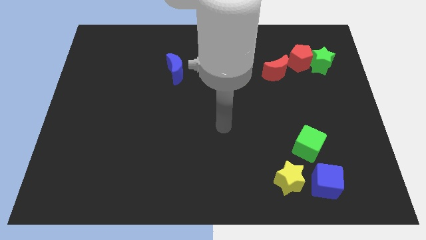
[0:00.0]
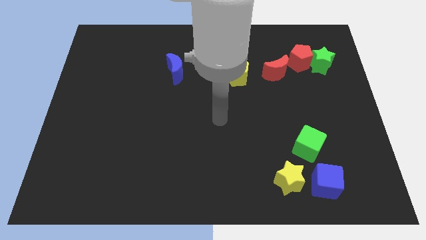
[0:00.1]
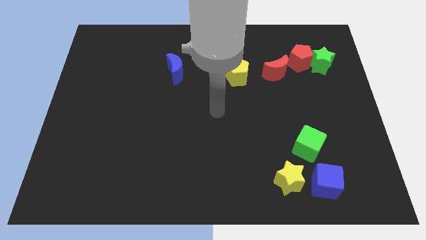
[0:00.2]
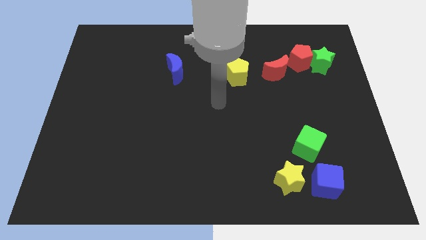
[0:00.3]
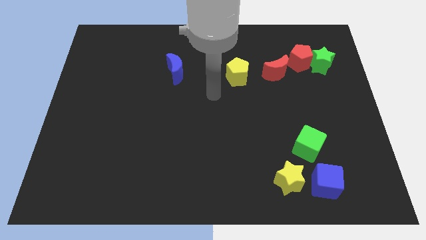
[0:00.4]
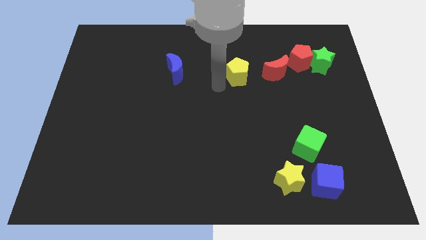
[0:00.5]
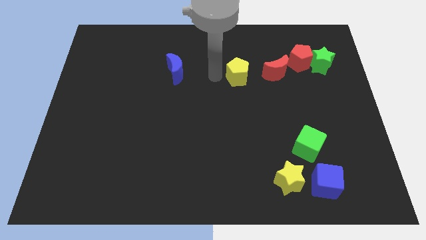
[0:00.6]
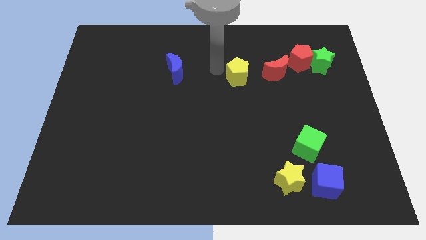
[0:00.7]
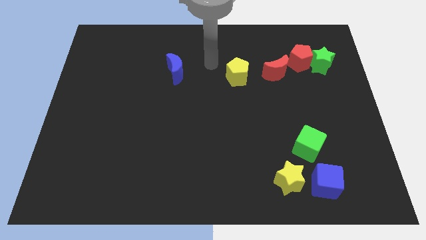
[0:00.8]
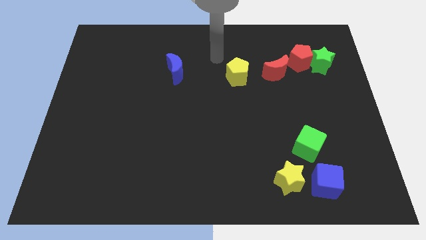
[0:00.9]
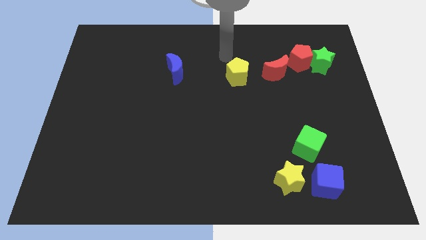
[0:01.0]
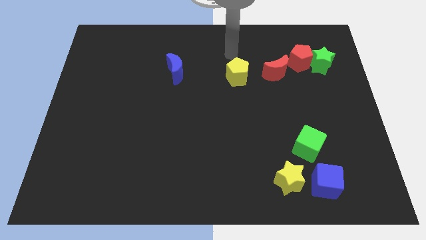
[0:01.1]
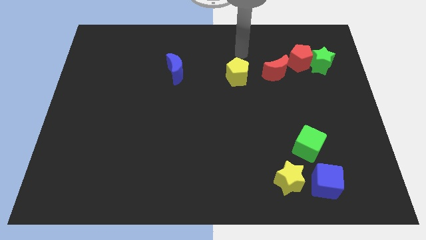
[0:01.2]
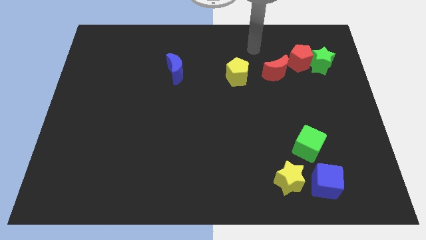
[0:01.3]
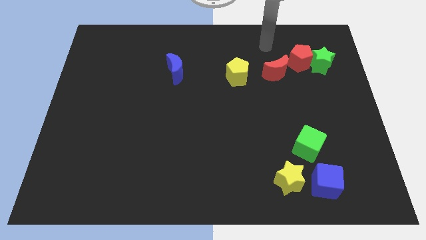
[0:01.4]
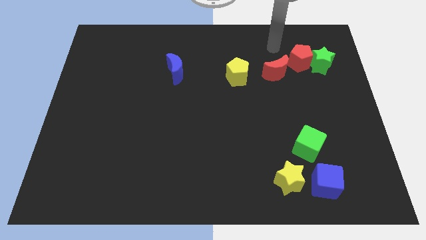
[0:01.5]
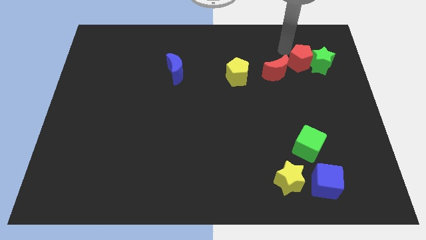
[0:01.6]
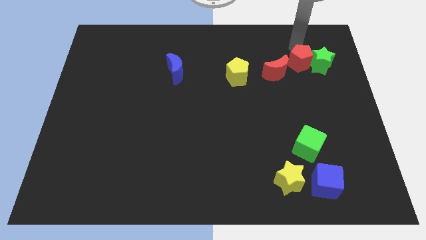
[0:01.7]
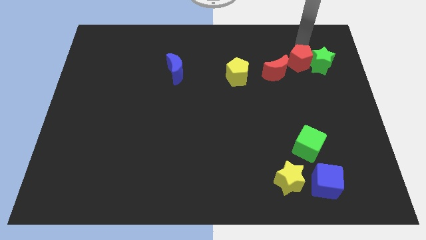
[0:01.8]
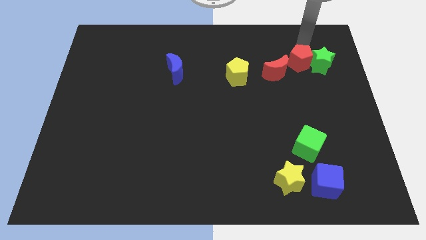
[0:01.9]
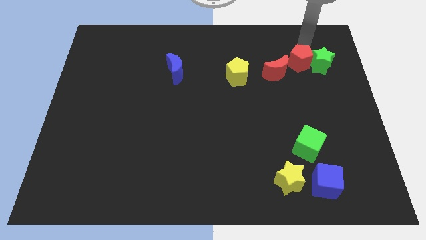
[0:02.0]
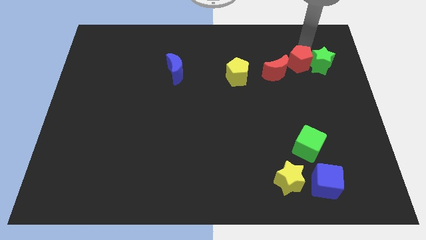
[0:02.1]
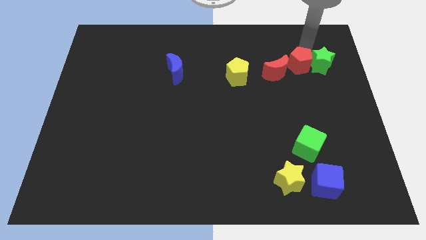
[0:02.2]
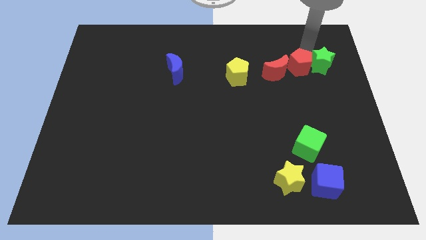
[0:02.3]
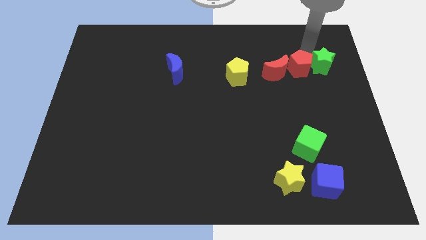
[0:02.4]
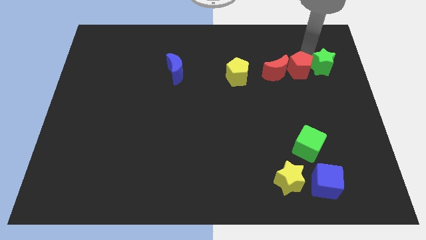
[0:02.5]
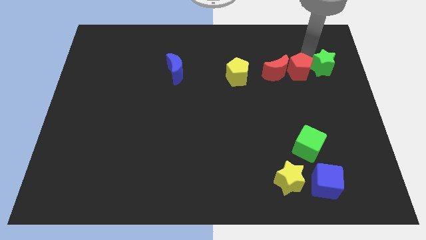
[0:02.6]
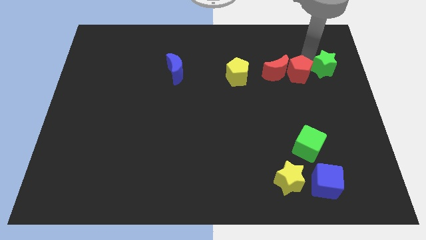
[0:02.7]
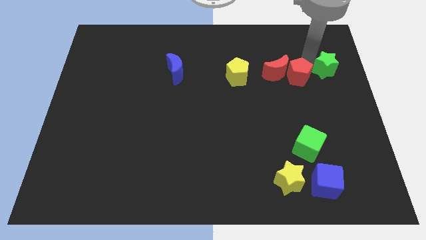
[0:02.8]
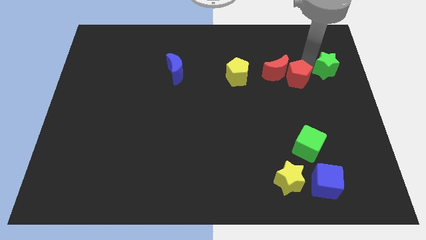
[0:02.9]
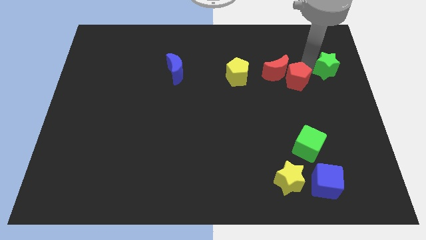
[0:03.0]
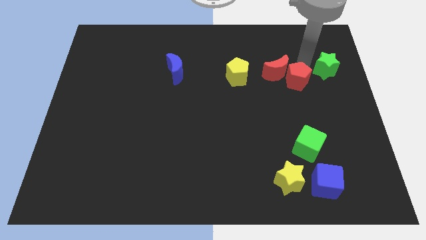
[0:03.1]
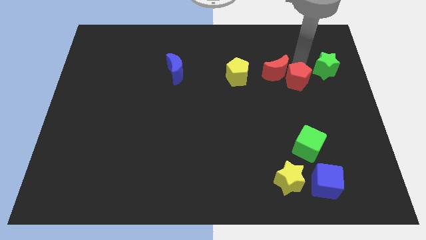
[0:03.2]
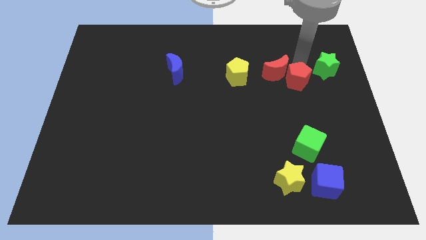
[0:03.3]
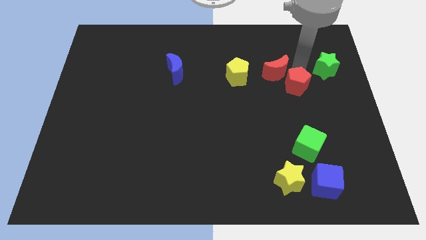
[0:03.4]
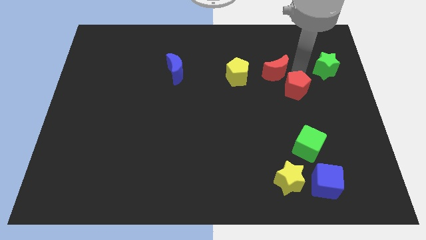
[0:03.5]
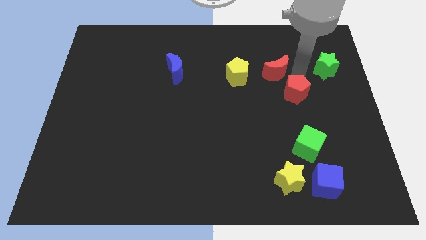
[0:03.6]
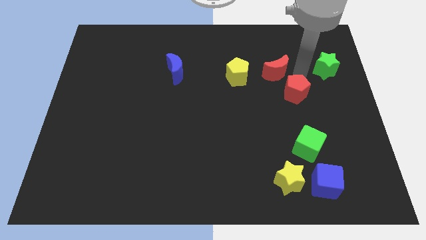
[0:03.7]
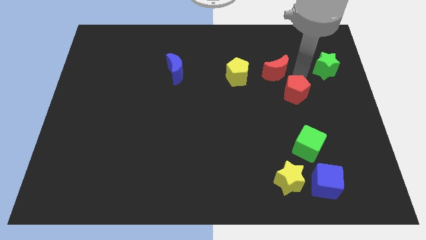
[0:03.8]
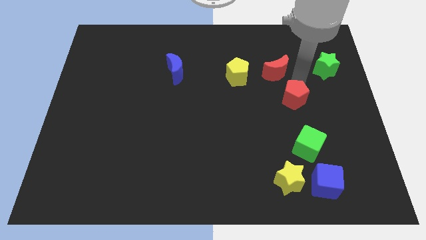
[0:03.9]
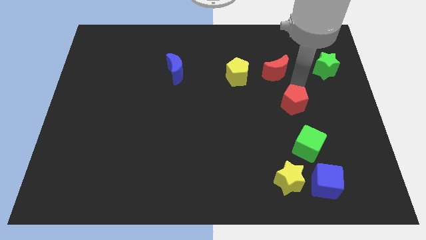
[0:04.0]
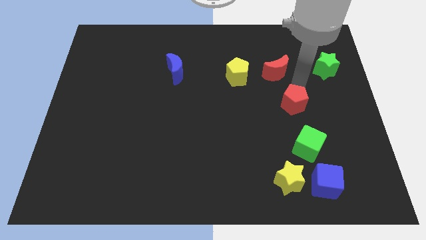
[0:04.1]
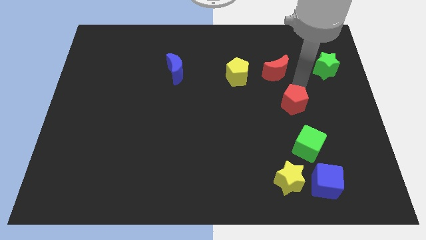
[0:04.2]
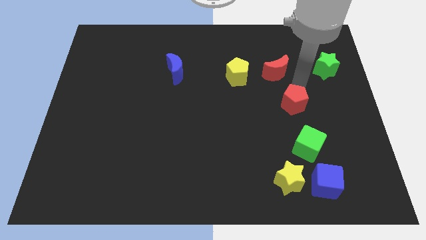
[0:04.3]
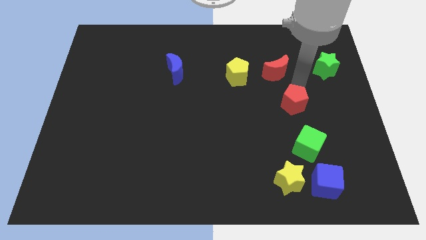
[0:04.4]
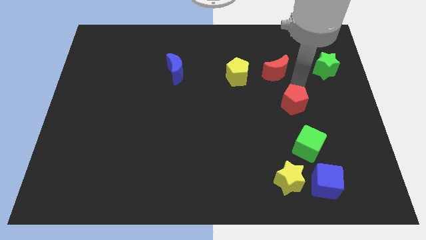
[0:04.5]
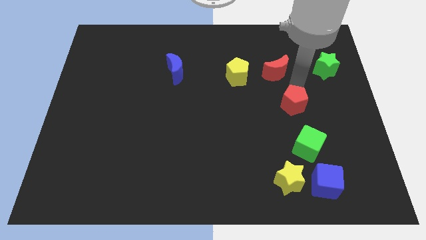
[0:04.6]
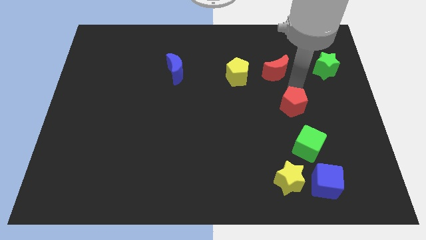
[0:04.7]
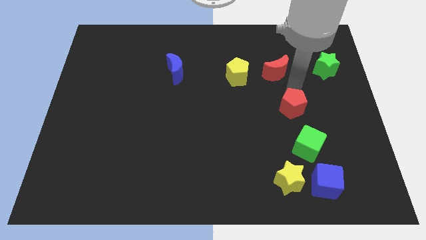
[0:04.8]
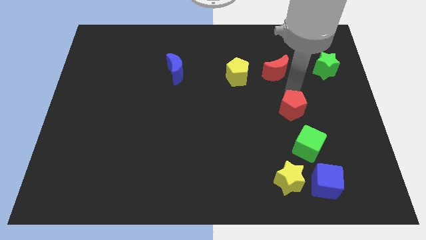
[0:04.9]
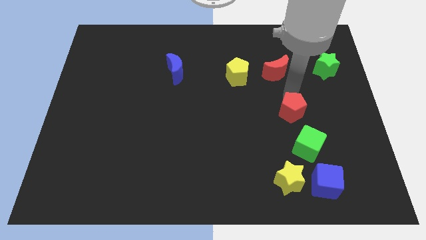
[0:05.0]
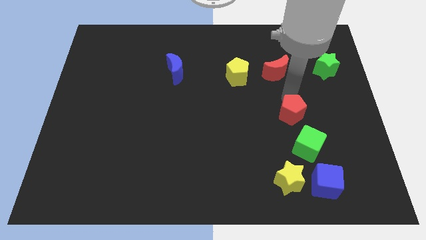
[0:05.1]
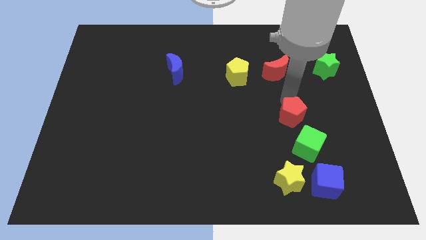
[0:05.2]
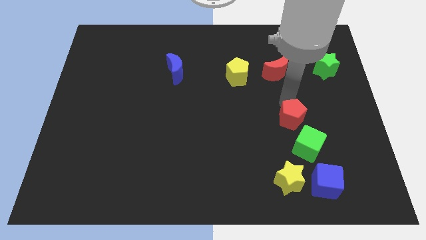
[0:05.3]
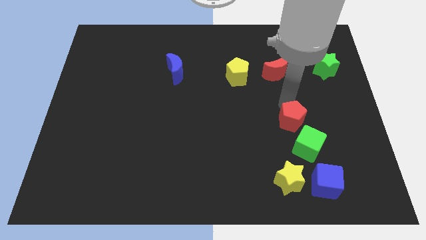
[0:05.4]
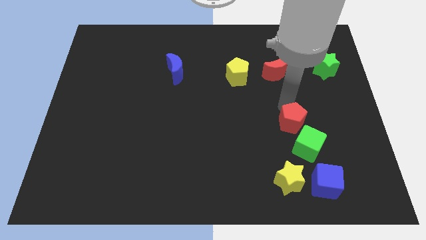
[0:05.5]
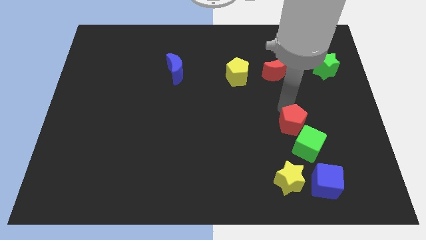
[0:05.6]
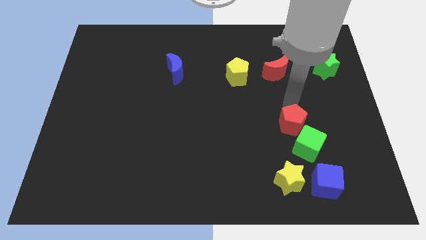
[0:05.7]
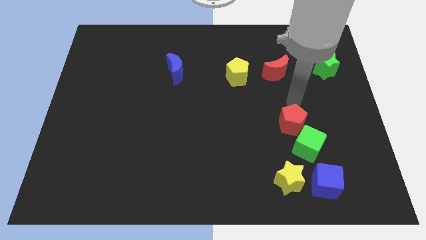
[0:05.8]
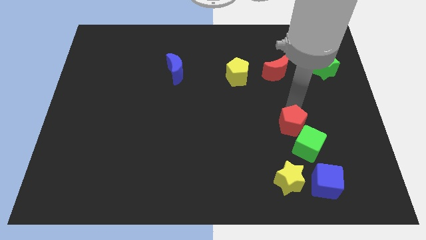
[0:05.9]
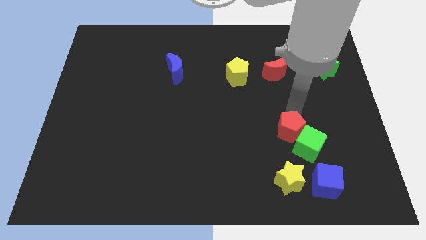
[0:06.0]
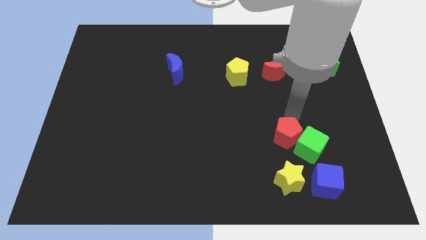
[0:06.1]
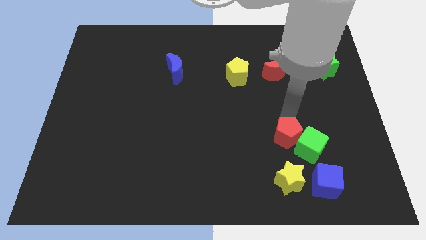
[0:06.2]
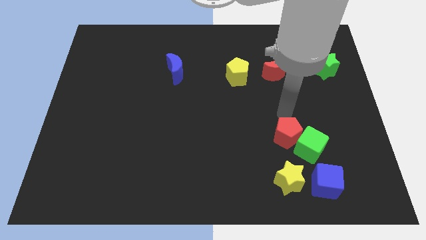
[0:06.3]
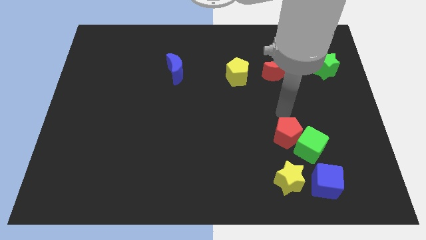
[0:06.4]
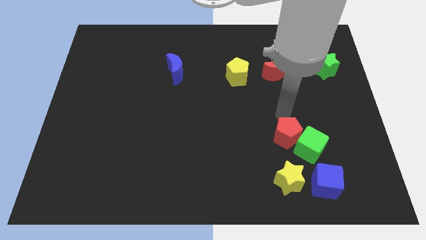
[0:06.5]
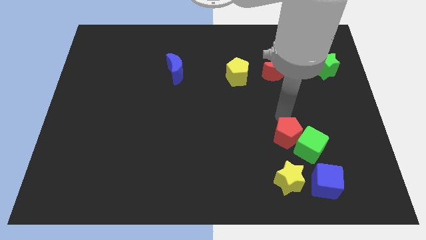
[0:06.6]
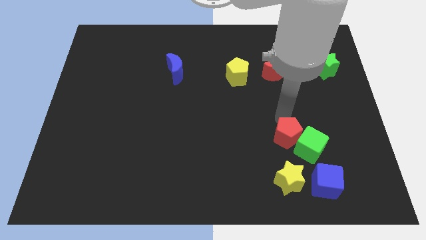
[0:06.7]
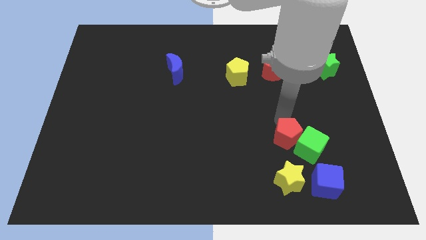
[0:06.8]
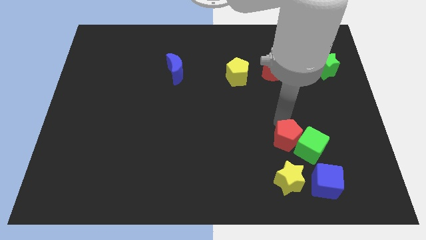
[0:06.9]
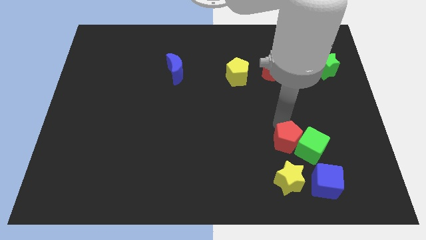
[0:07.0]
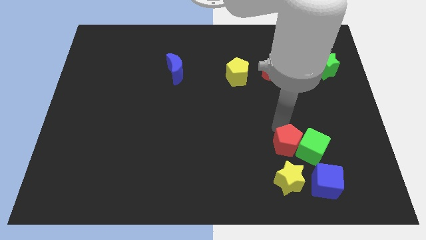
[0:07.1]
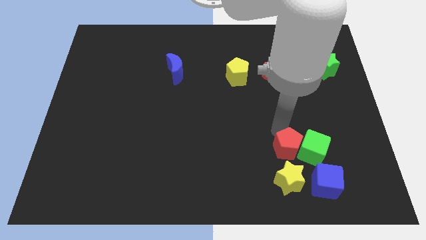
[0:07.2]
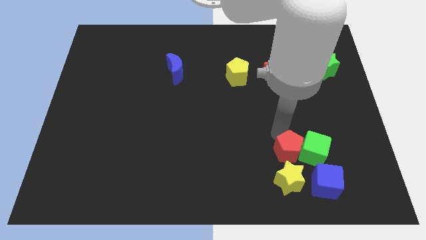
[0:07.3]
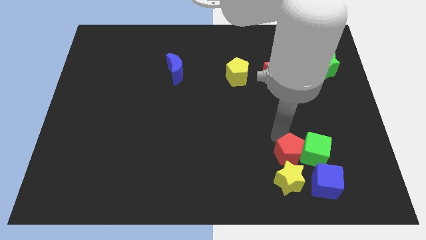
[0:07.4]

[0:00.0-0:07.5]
push the red pentagon towards the yellow star
